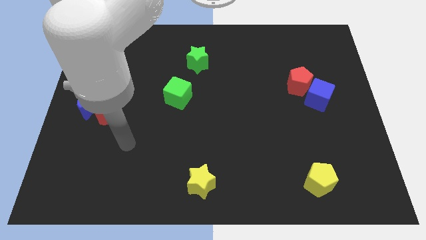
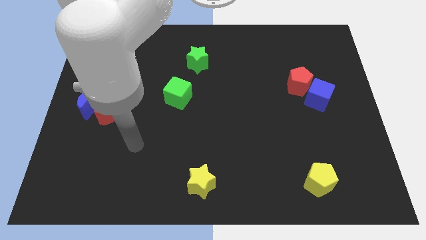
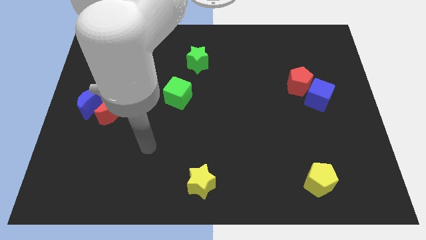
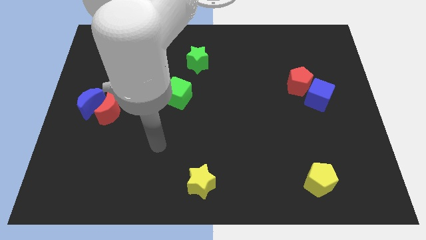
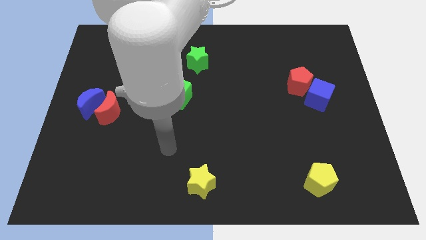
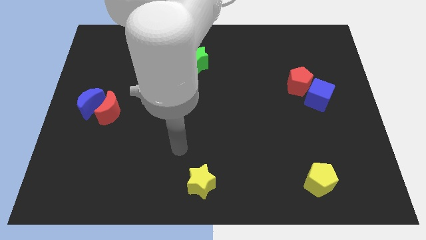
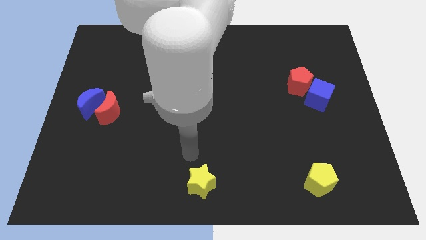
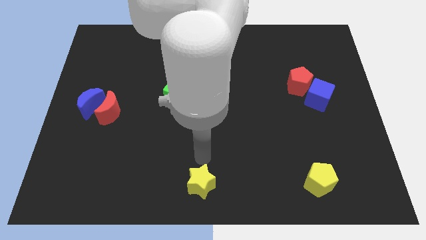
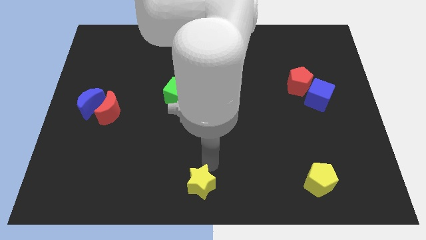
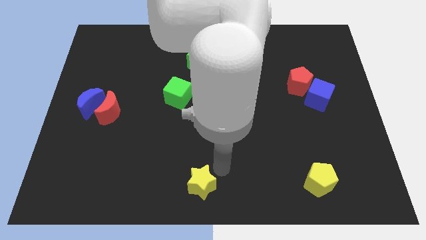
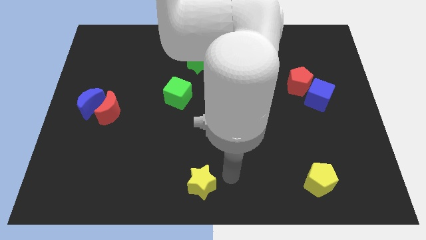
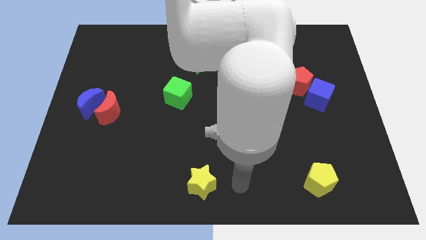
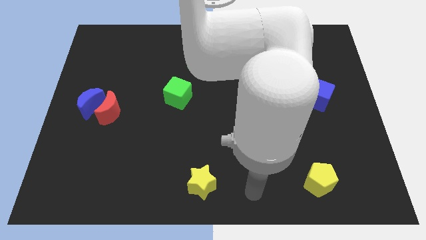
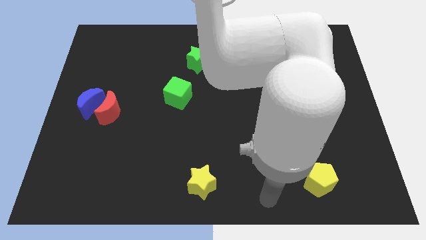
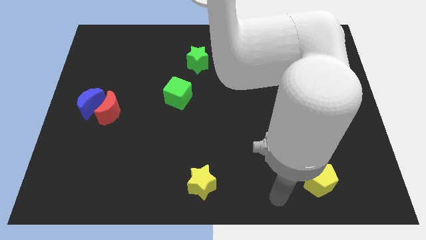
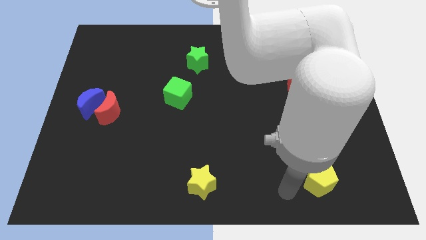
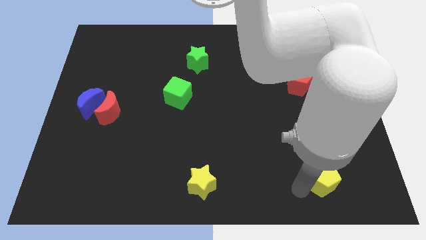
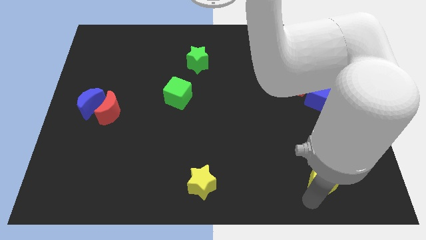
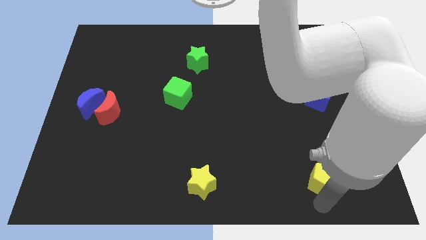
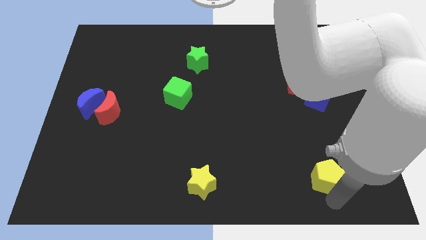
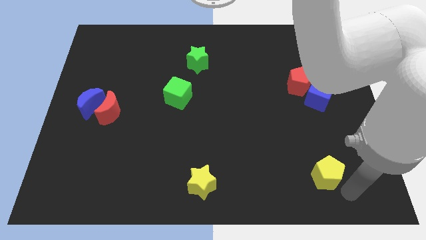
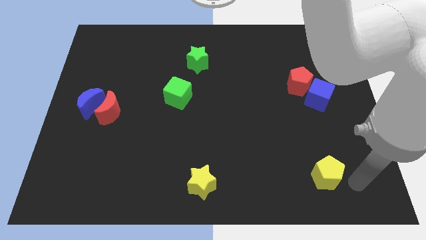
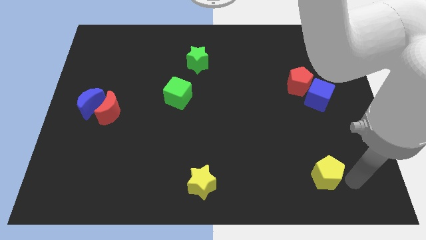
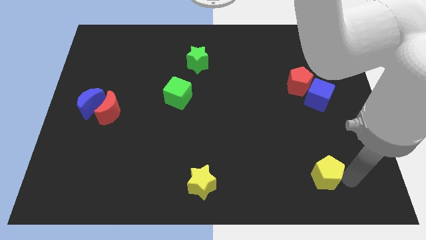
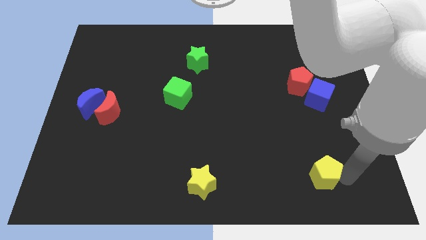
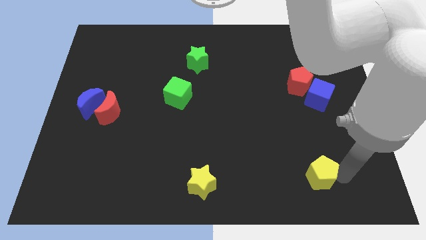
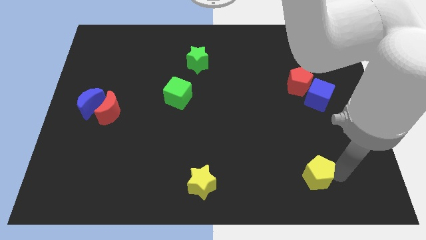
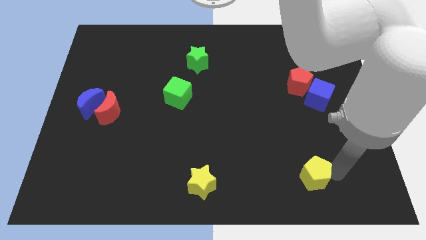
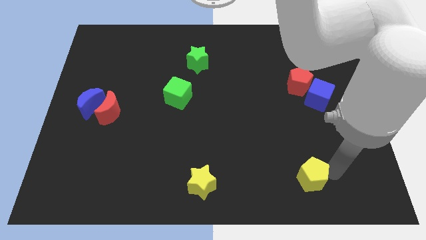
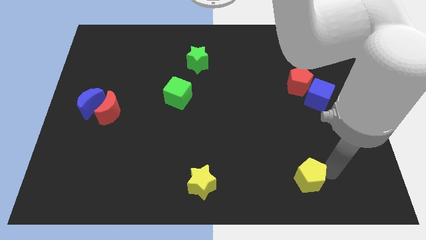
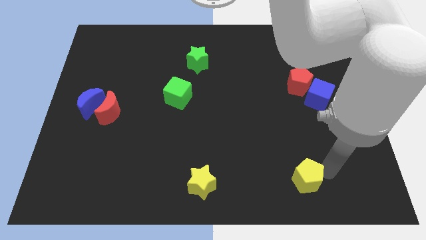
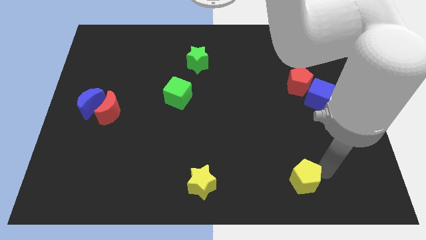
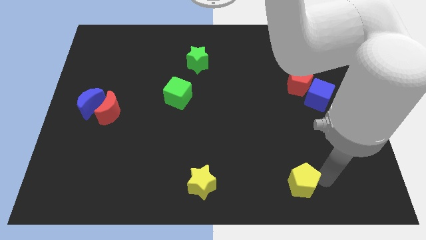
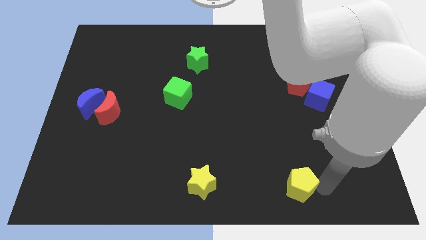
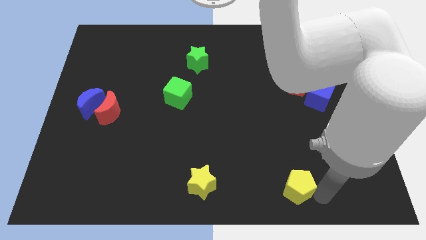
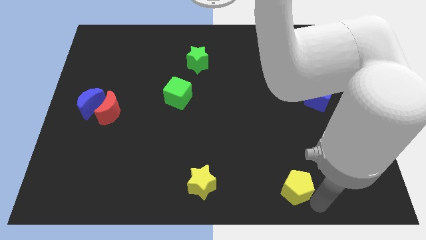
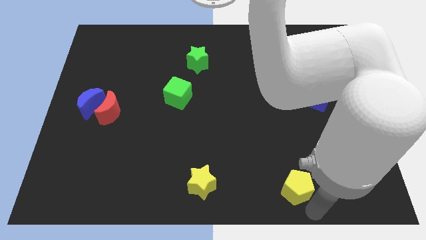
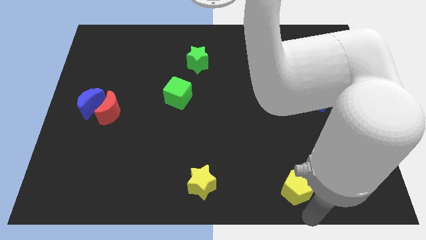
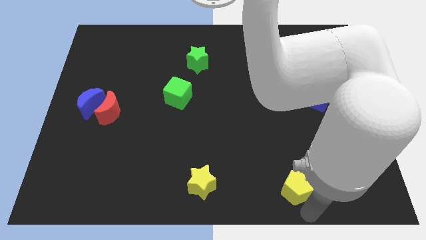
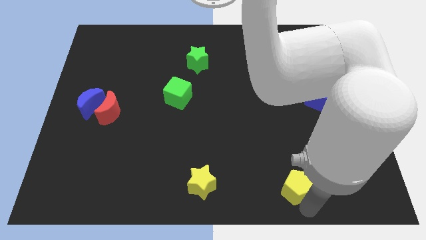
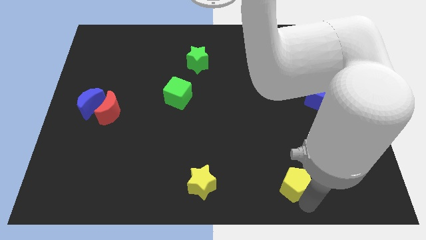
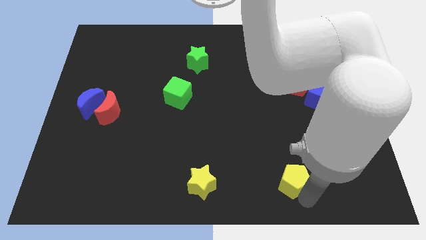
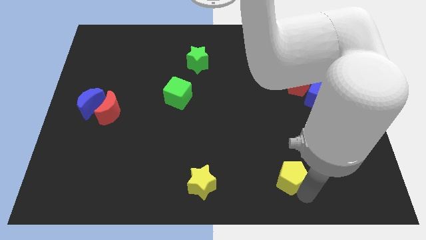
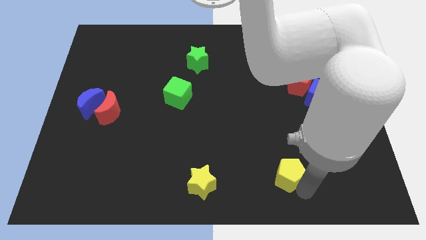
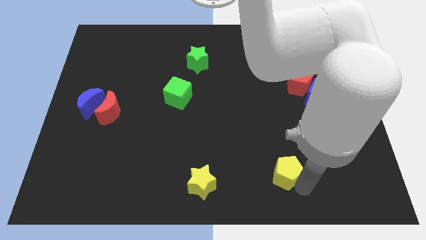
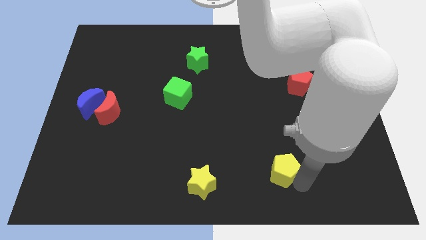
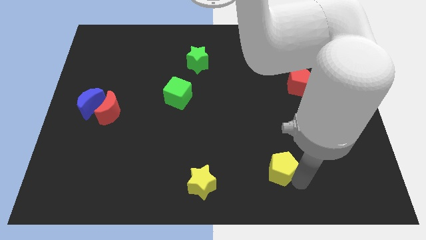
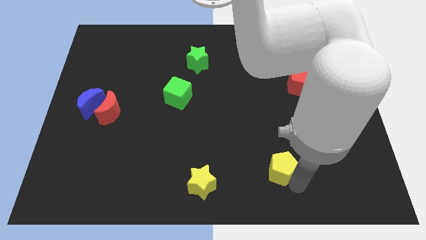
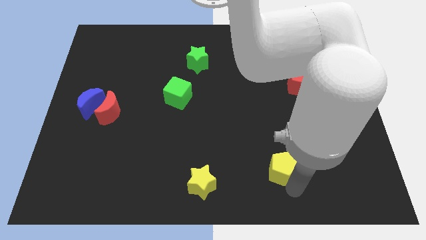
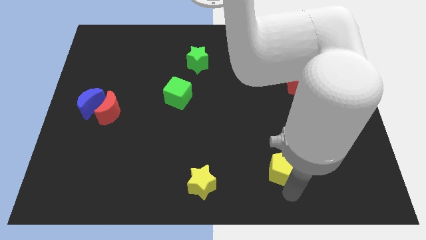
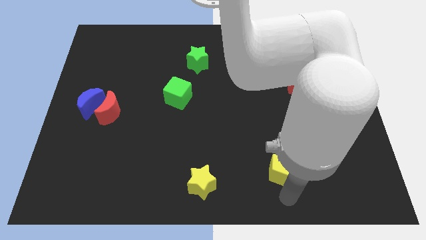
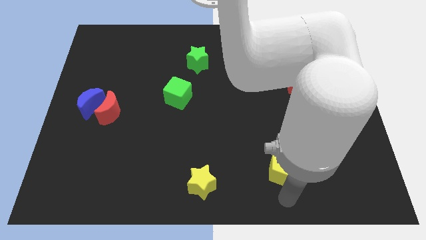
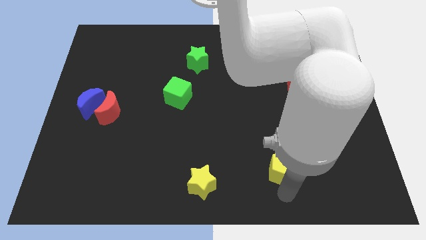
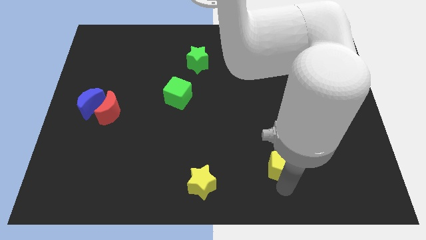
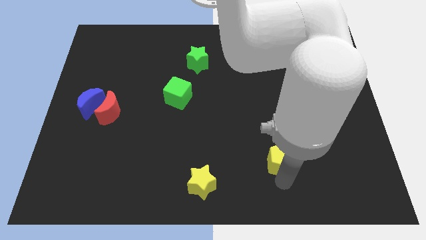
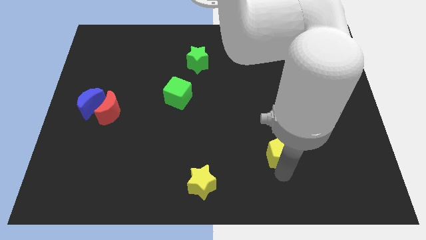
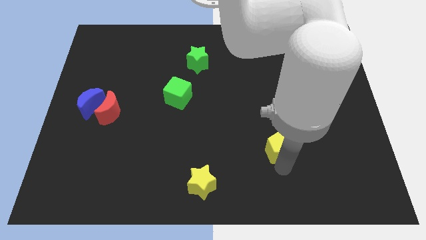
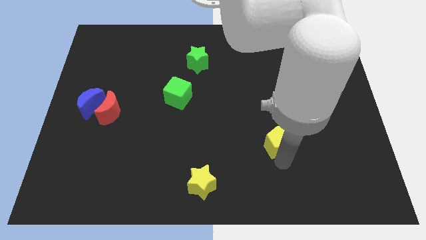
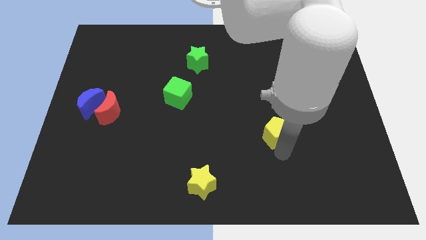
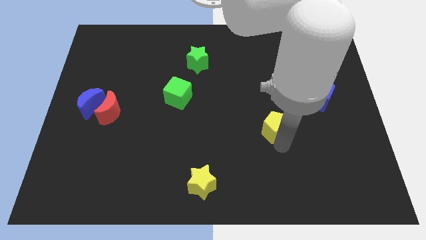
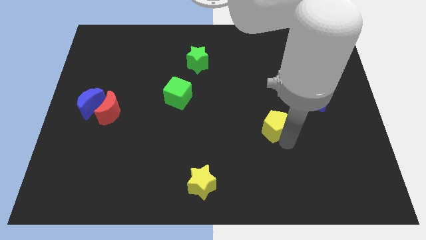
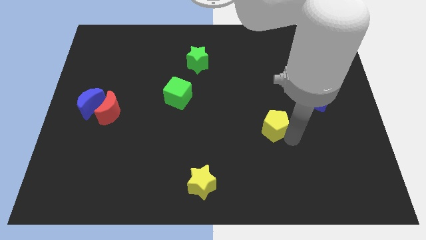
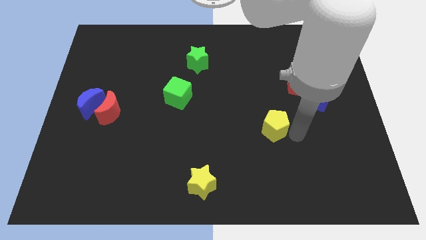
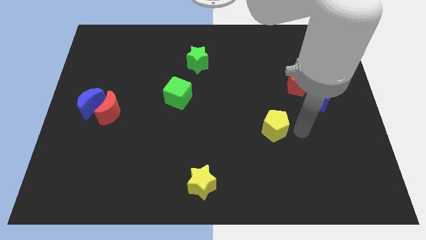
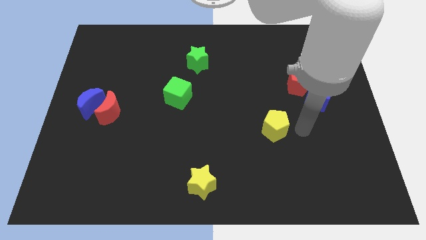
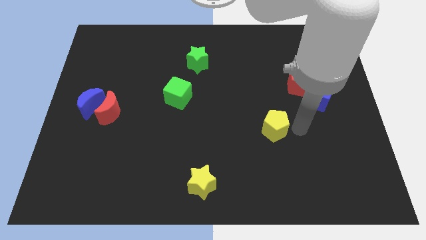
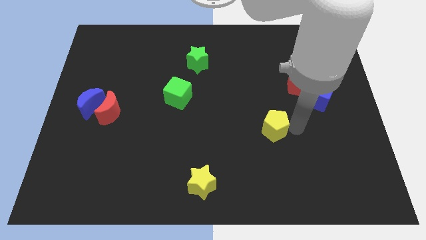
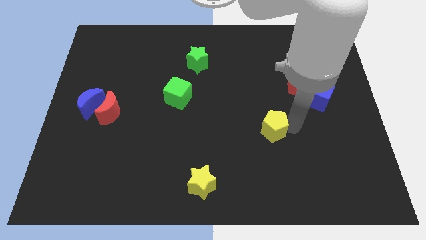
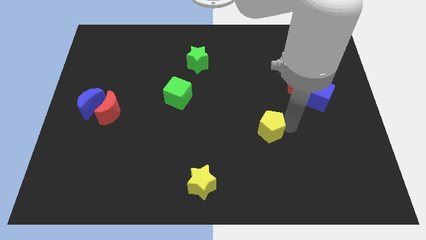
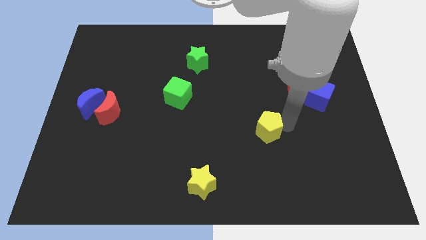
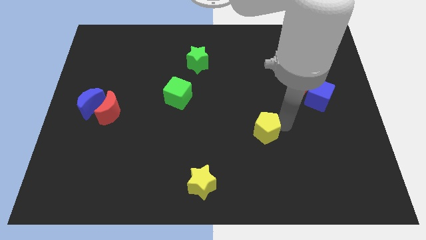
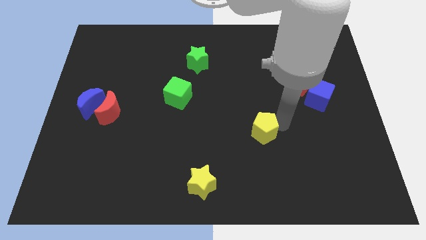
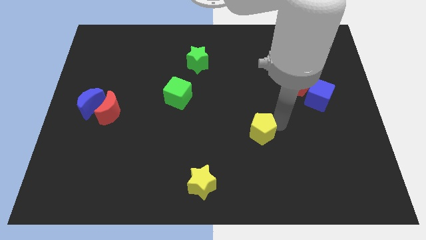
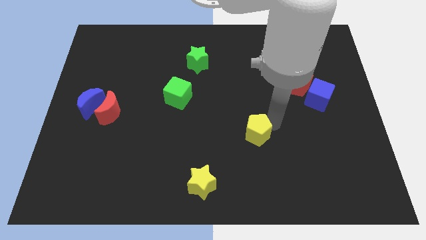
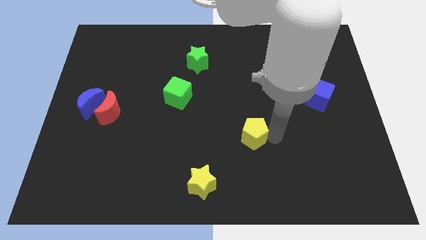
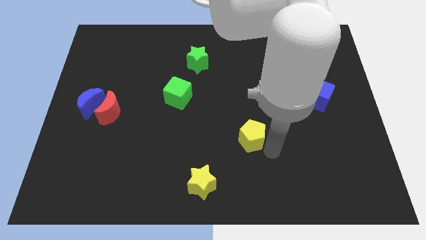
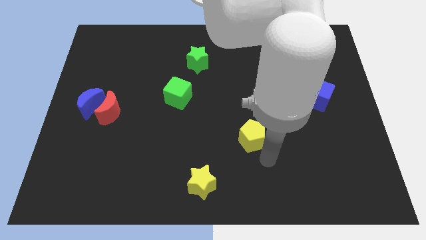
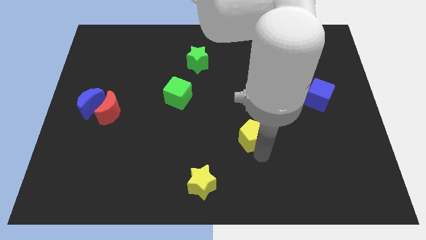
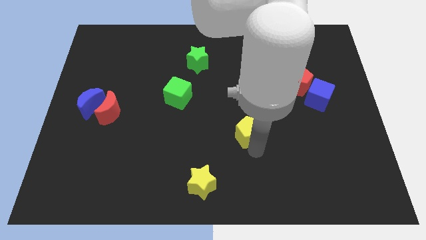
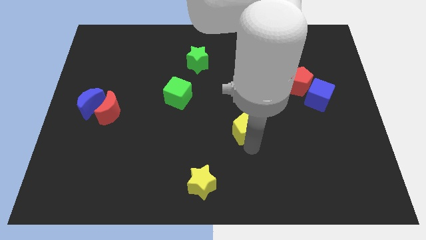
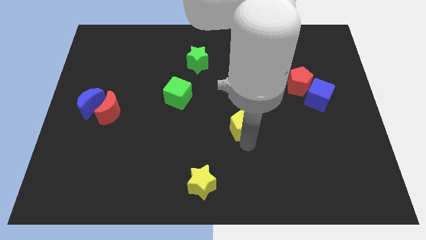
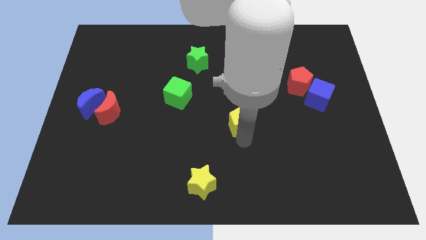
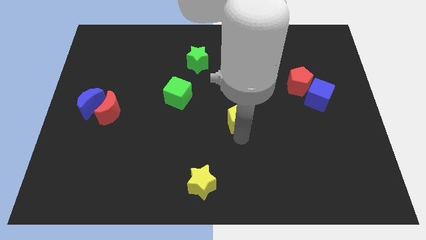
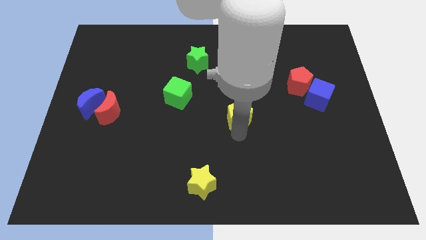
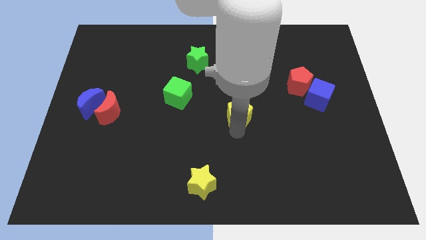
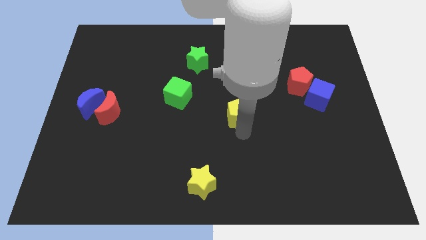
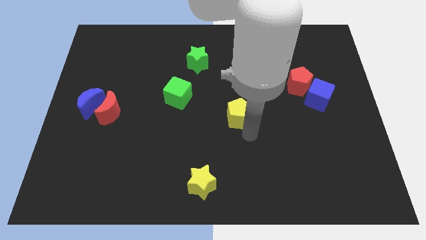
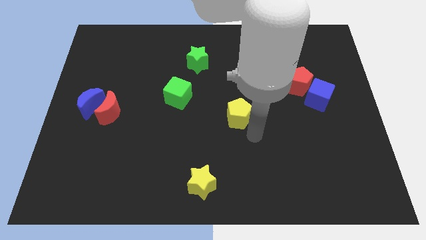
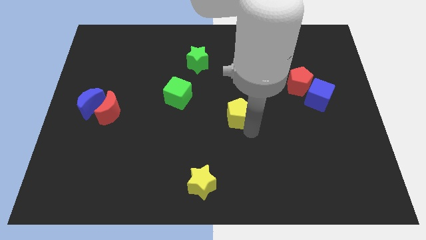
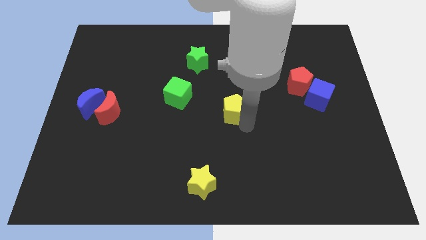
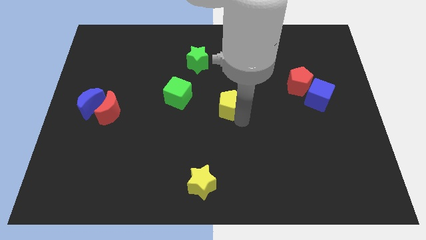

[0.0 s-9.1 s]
push the yellow pentagon just right of the green cube
